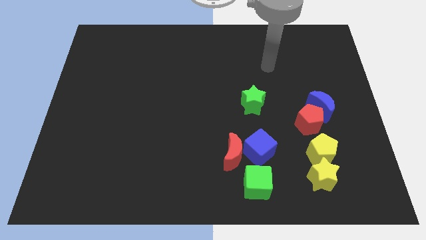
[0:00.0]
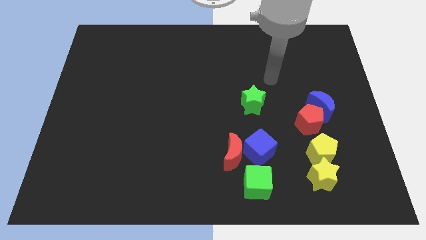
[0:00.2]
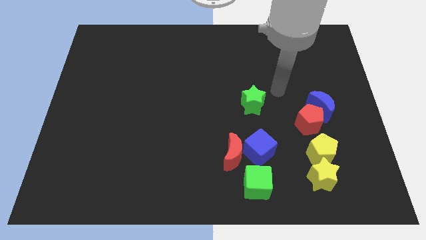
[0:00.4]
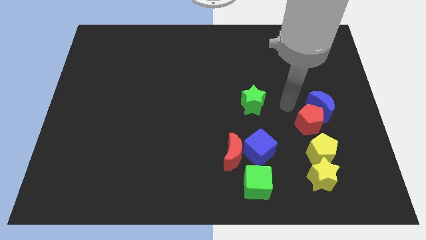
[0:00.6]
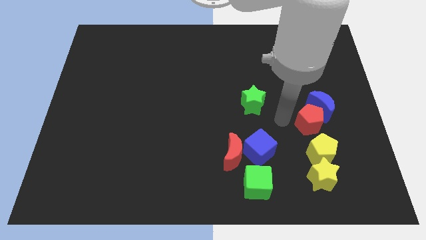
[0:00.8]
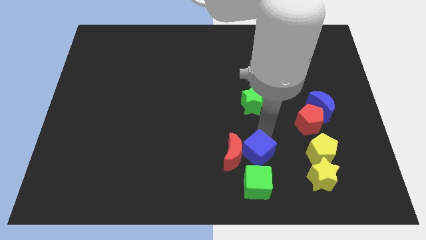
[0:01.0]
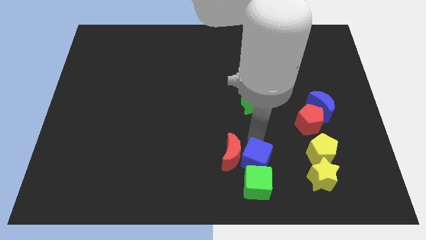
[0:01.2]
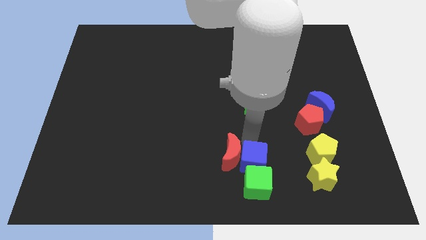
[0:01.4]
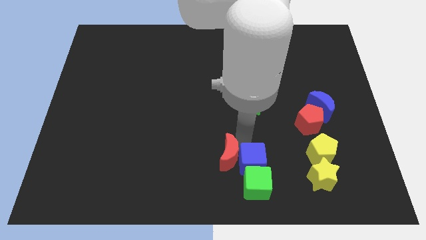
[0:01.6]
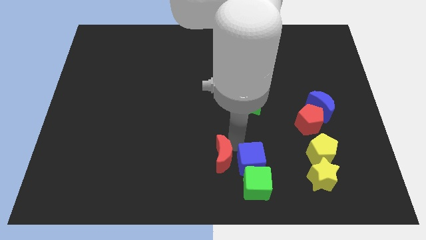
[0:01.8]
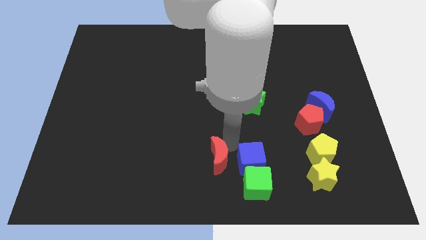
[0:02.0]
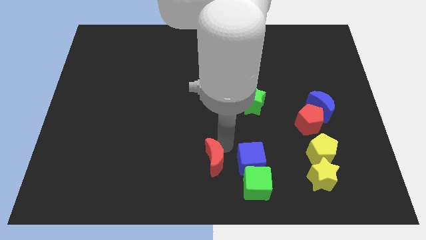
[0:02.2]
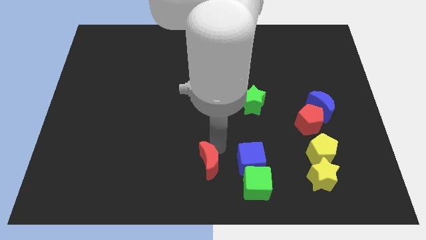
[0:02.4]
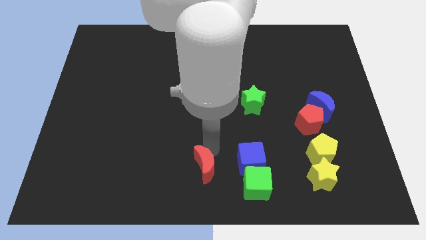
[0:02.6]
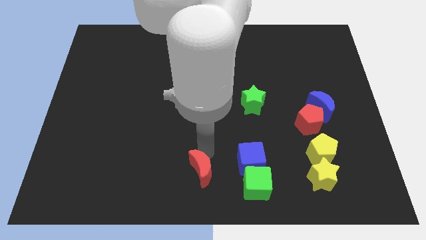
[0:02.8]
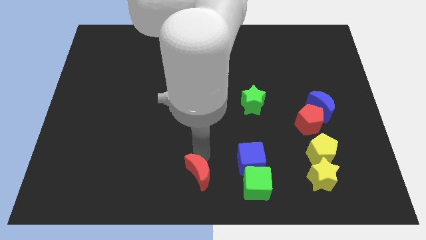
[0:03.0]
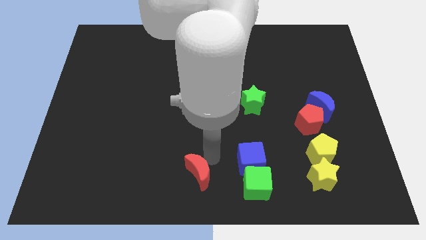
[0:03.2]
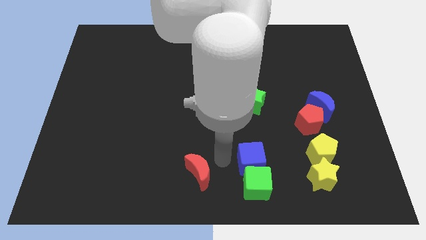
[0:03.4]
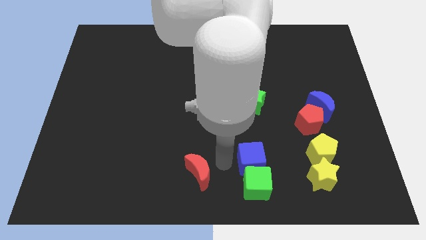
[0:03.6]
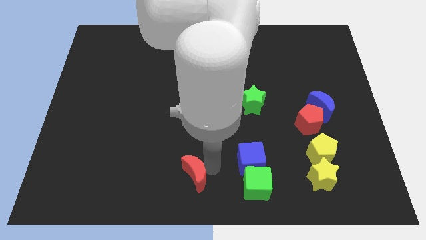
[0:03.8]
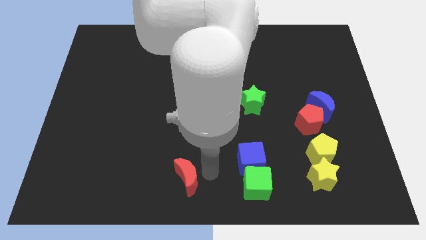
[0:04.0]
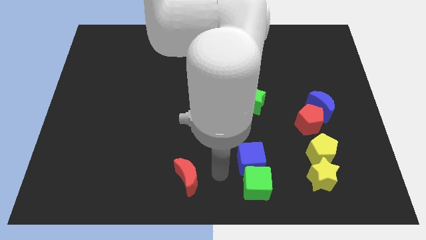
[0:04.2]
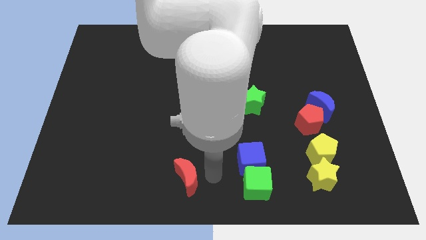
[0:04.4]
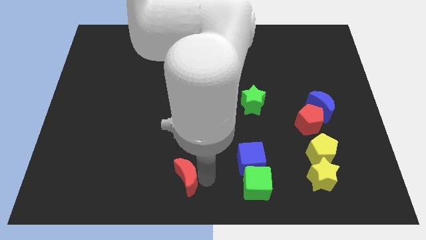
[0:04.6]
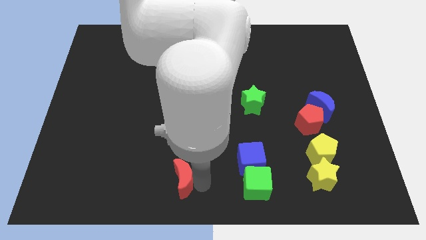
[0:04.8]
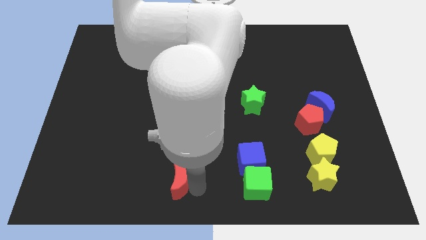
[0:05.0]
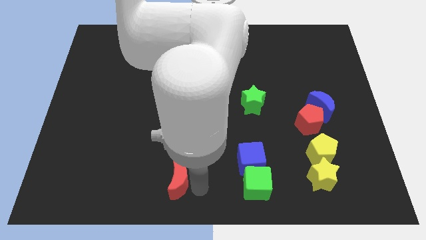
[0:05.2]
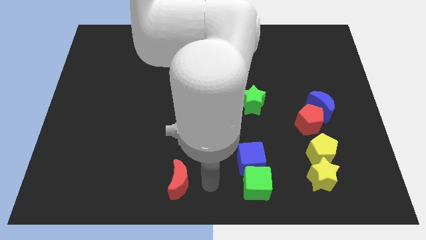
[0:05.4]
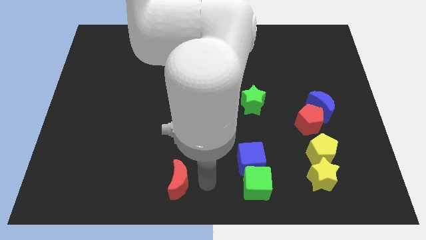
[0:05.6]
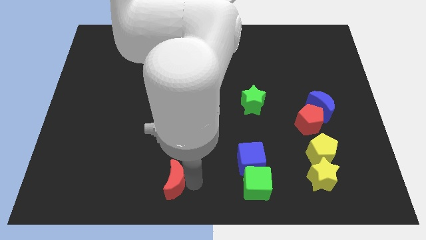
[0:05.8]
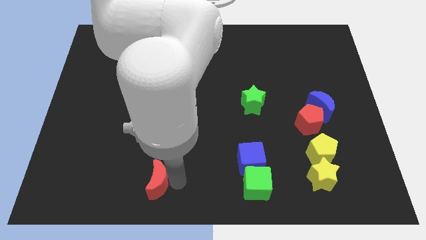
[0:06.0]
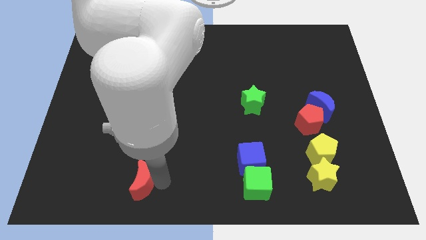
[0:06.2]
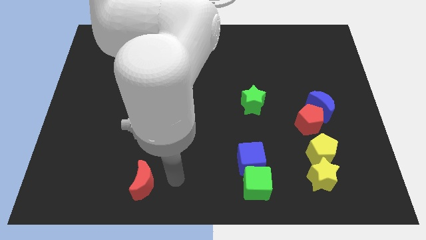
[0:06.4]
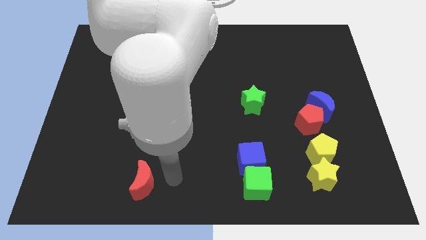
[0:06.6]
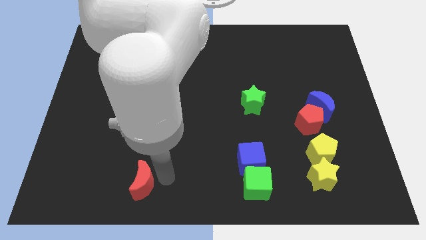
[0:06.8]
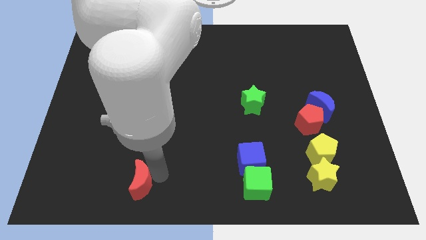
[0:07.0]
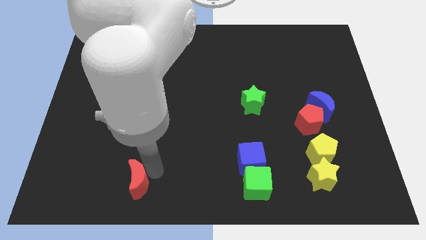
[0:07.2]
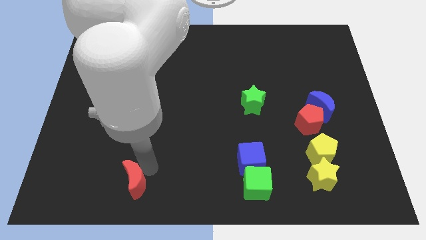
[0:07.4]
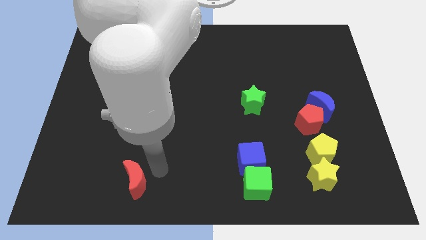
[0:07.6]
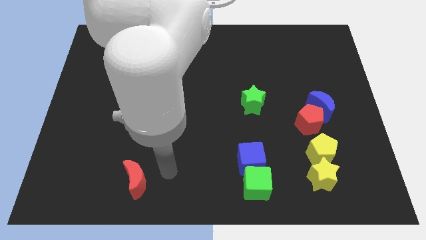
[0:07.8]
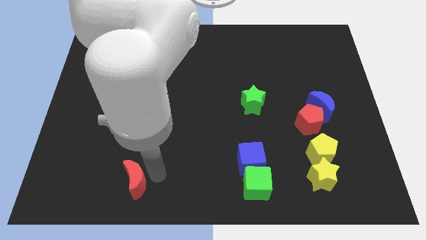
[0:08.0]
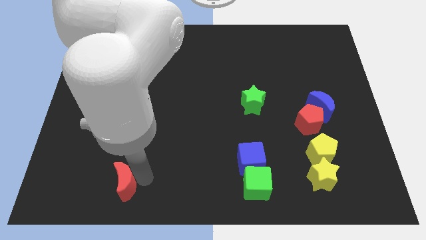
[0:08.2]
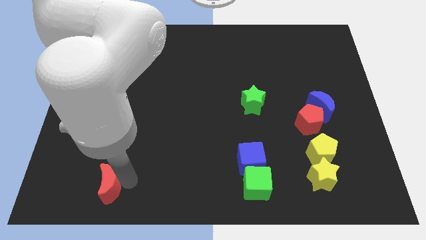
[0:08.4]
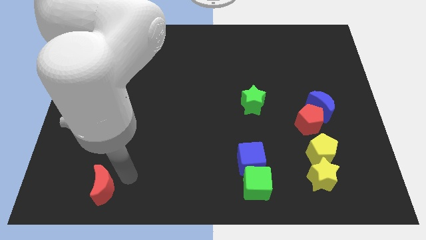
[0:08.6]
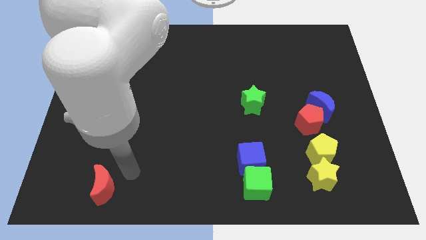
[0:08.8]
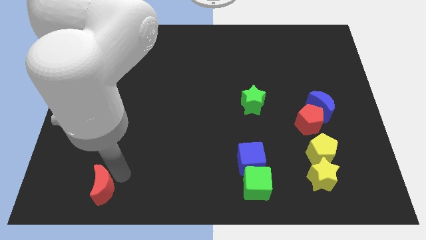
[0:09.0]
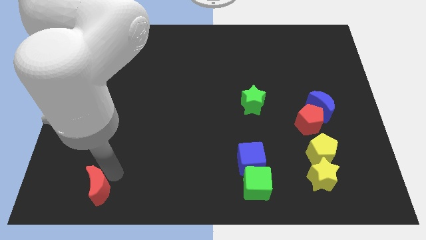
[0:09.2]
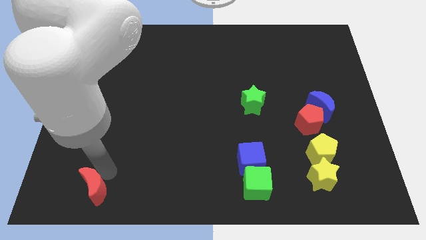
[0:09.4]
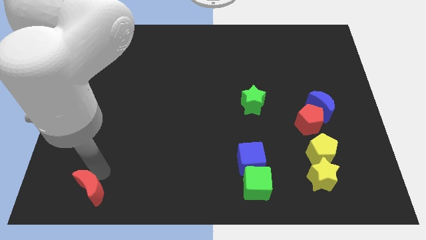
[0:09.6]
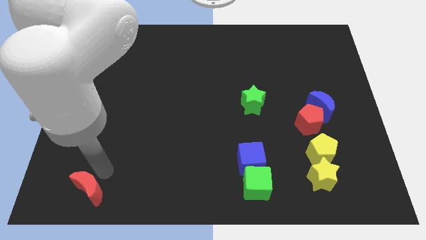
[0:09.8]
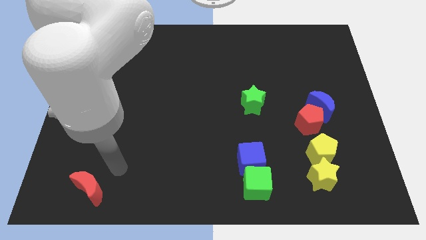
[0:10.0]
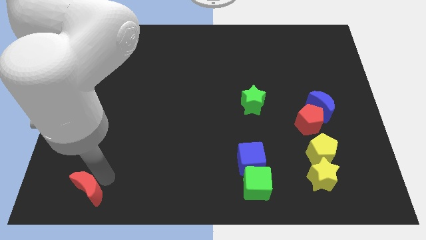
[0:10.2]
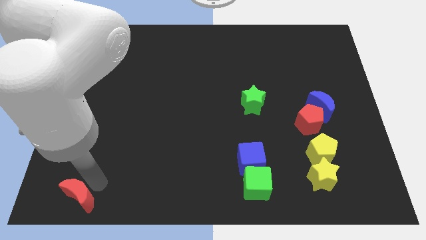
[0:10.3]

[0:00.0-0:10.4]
slide the red moon to the bottom left corner

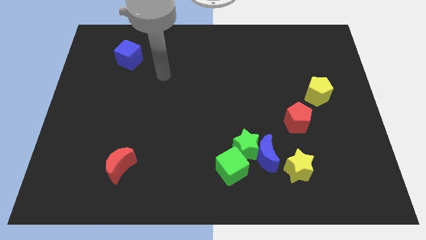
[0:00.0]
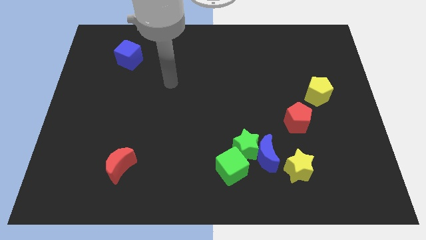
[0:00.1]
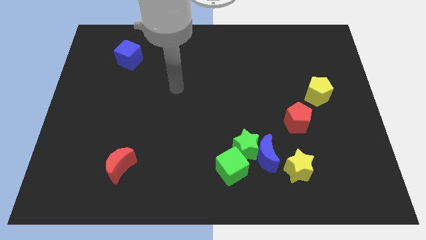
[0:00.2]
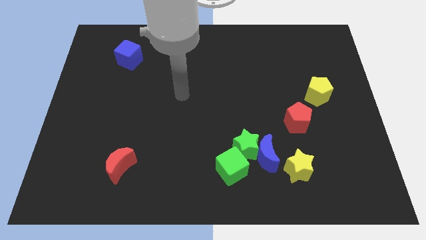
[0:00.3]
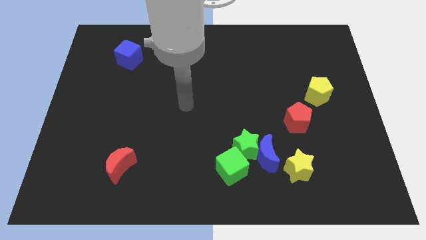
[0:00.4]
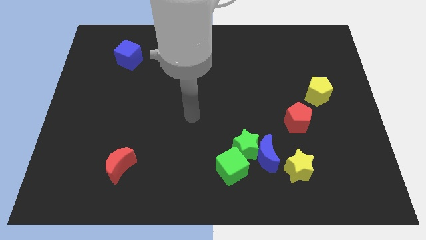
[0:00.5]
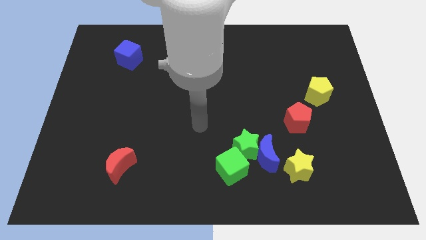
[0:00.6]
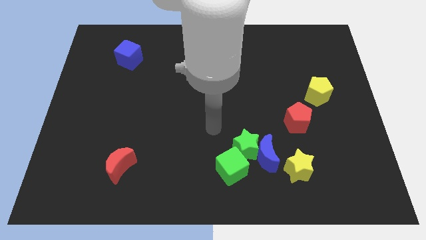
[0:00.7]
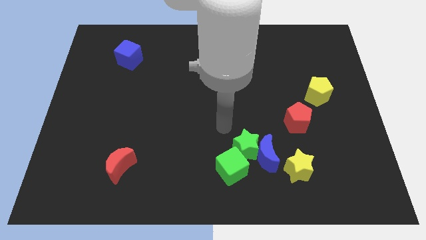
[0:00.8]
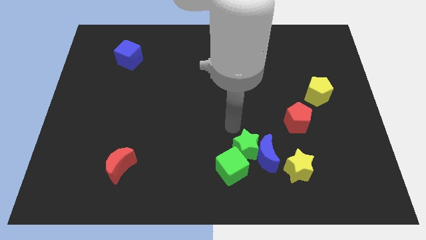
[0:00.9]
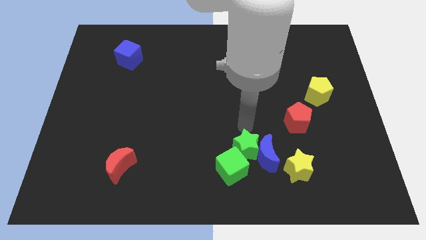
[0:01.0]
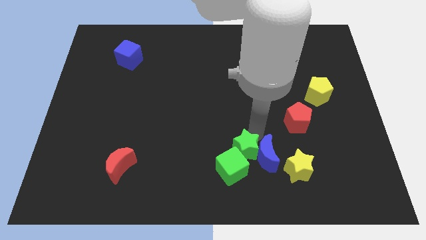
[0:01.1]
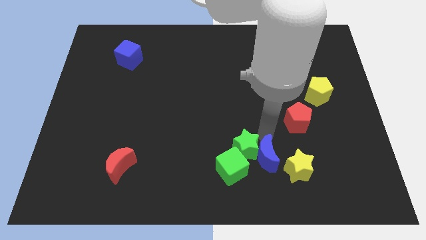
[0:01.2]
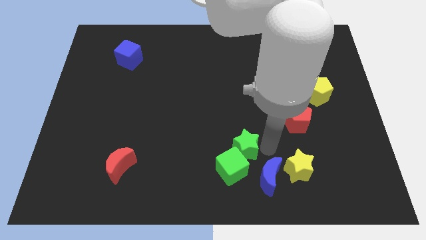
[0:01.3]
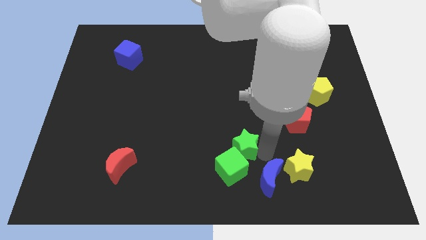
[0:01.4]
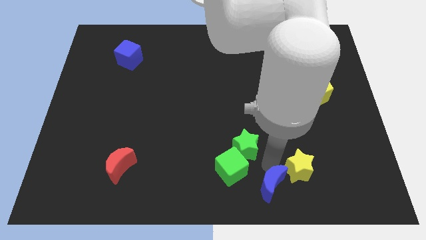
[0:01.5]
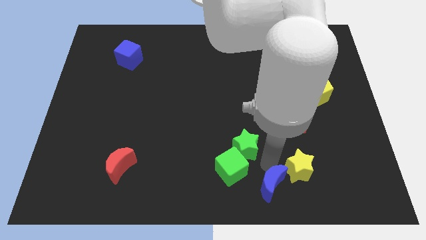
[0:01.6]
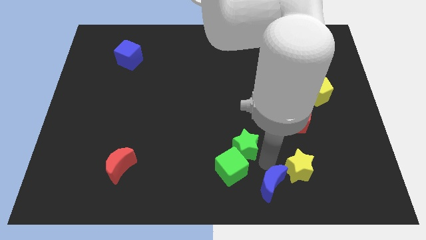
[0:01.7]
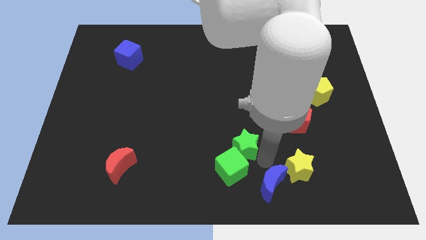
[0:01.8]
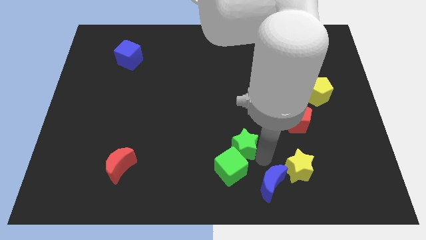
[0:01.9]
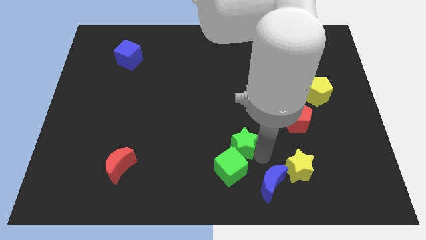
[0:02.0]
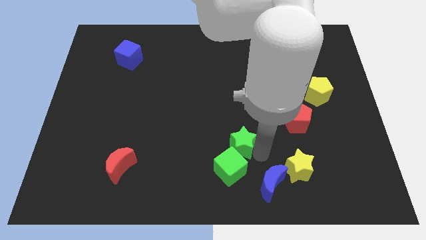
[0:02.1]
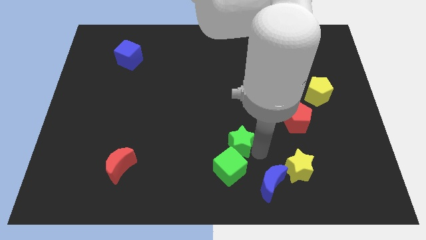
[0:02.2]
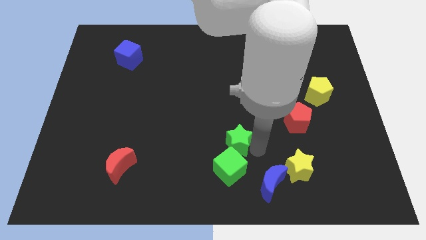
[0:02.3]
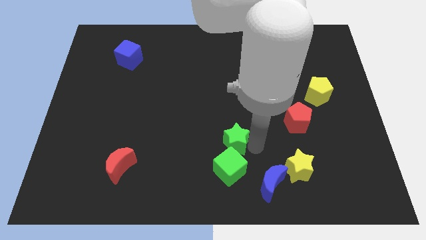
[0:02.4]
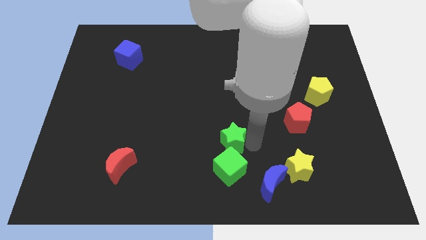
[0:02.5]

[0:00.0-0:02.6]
move the green star to the middle of the board
